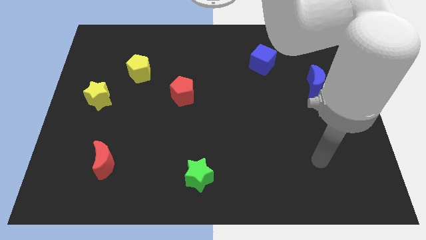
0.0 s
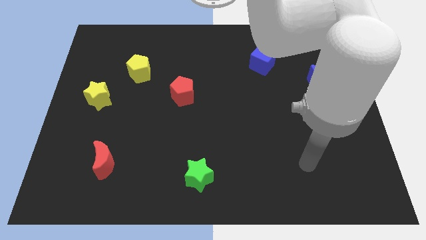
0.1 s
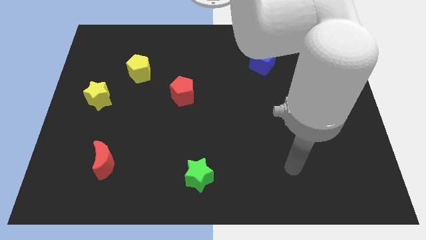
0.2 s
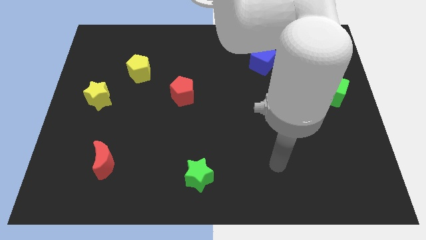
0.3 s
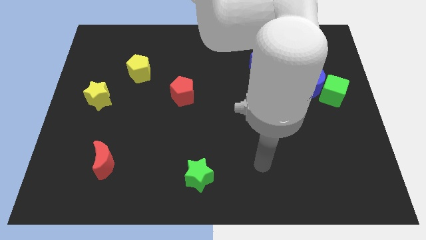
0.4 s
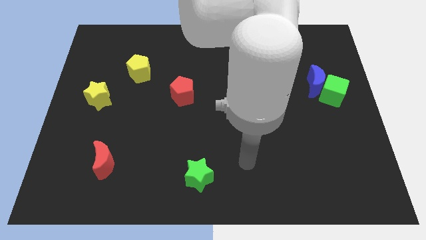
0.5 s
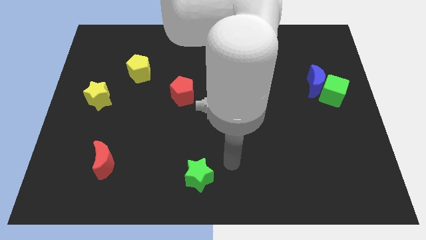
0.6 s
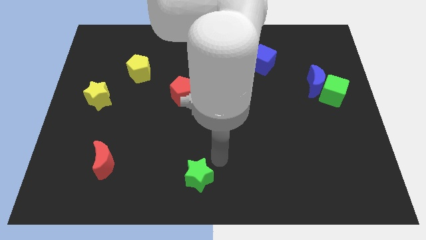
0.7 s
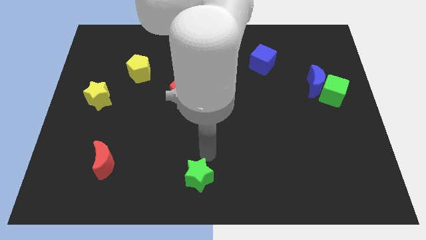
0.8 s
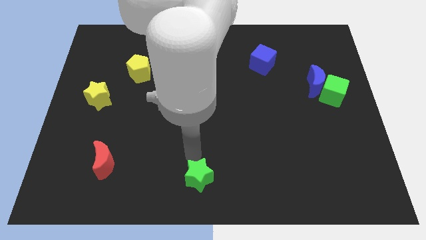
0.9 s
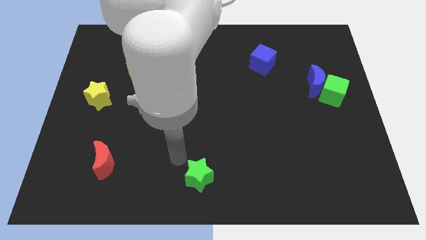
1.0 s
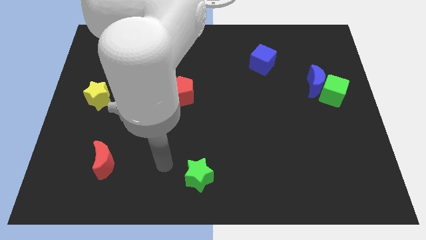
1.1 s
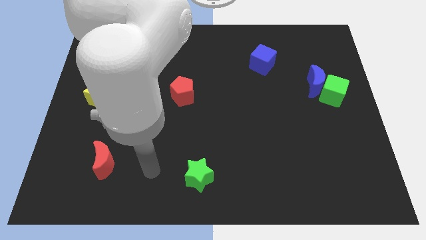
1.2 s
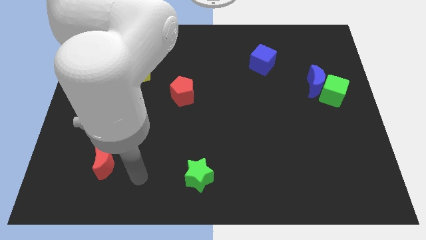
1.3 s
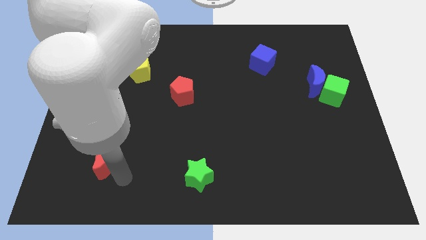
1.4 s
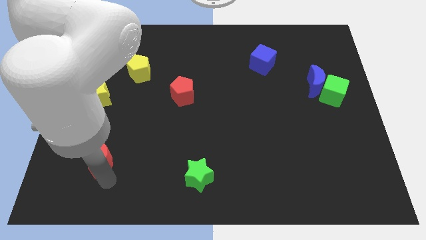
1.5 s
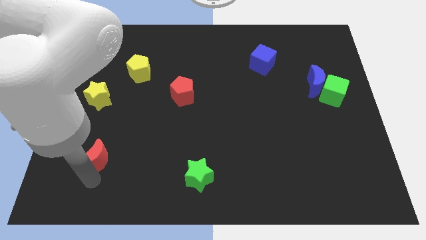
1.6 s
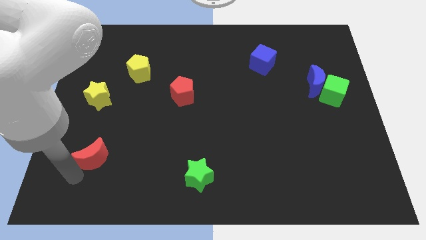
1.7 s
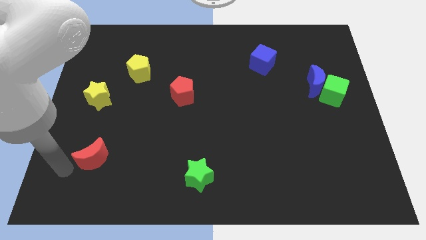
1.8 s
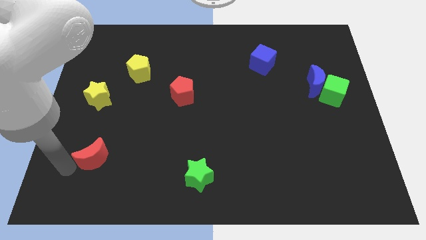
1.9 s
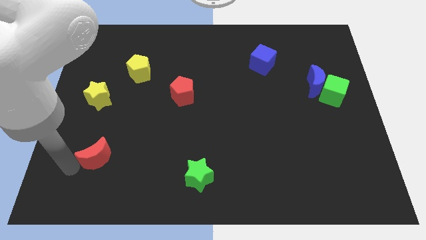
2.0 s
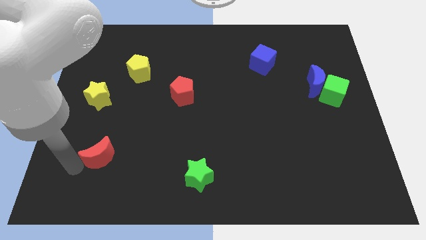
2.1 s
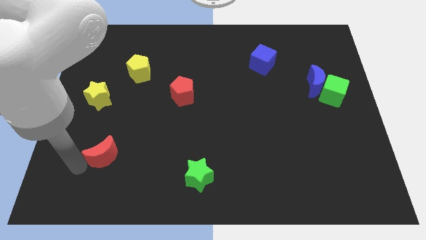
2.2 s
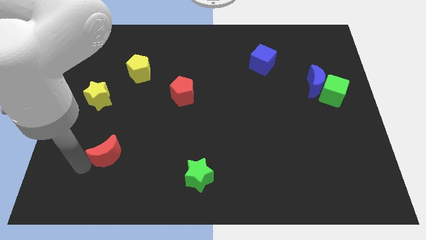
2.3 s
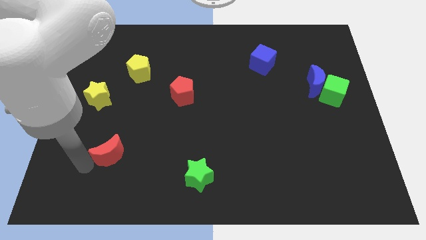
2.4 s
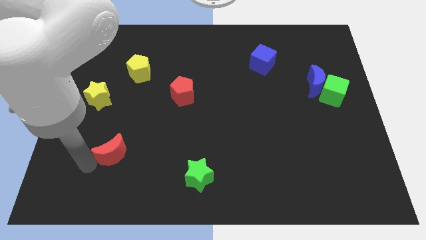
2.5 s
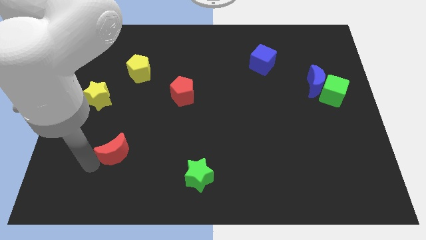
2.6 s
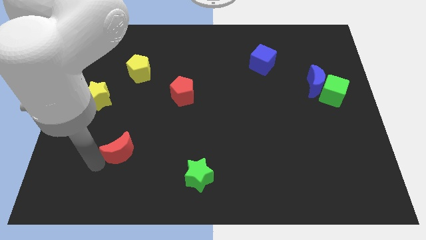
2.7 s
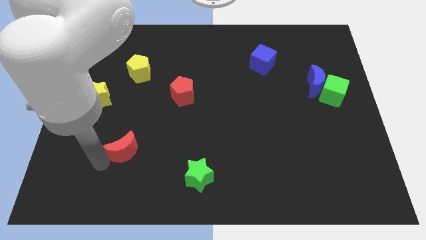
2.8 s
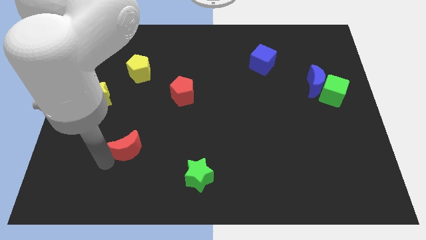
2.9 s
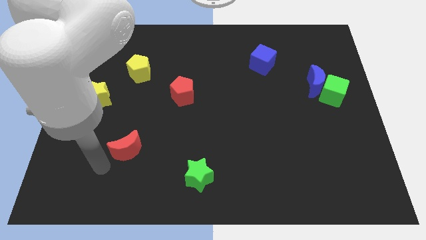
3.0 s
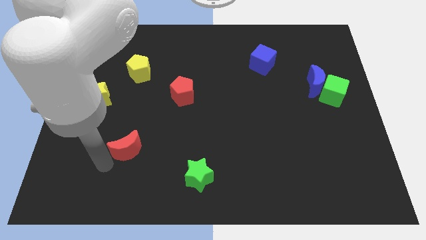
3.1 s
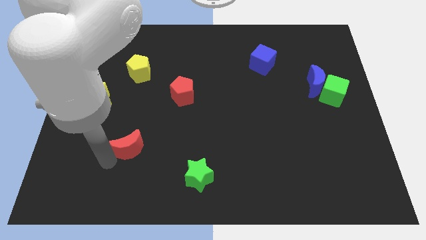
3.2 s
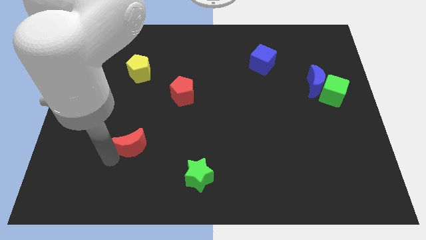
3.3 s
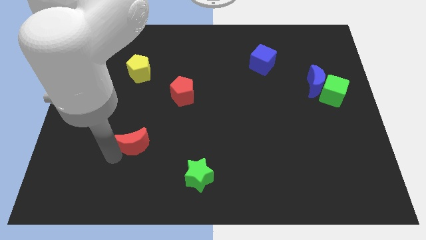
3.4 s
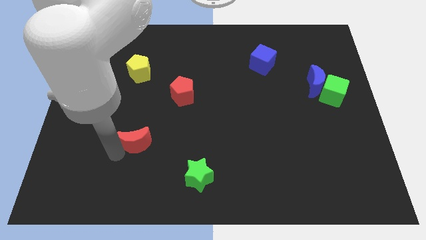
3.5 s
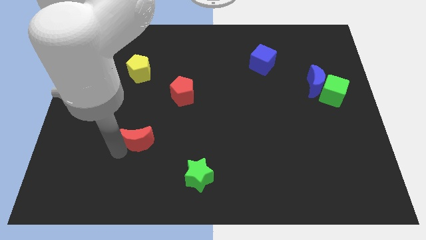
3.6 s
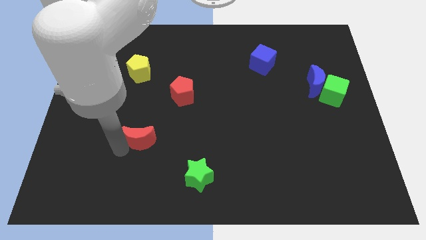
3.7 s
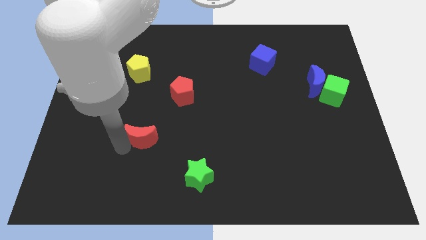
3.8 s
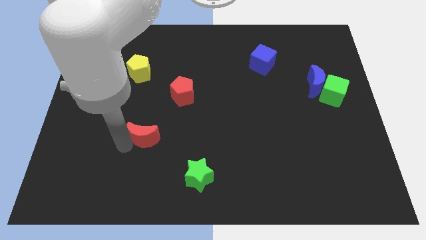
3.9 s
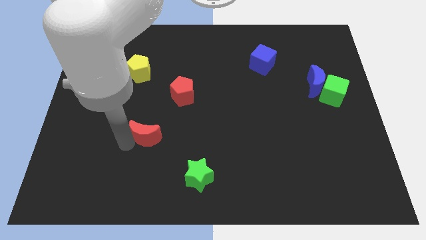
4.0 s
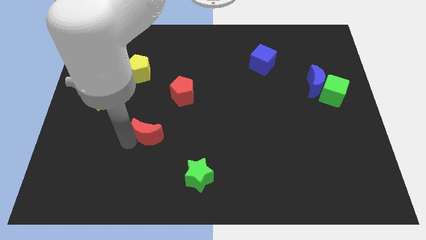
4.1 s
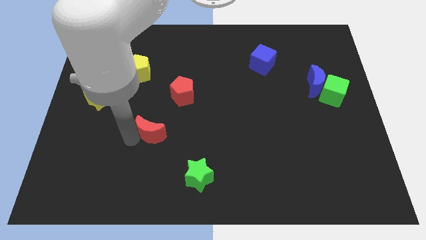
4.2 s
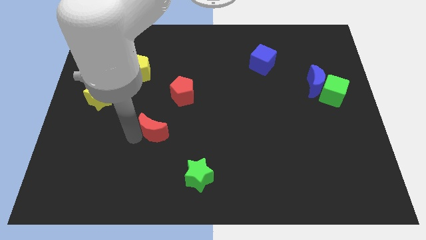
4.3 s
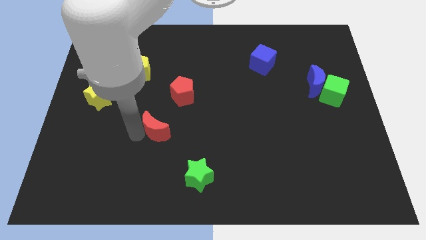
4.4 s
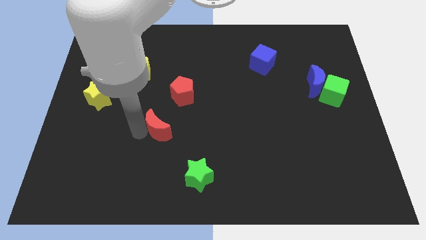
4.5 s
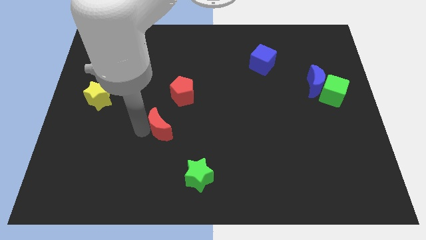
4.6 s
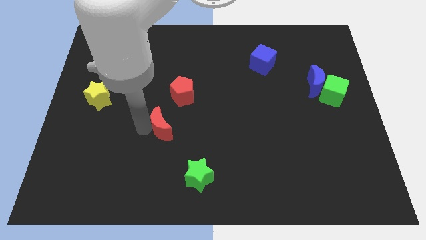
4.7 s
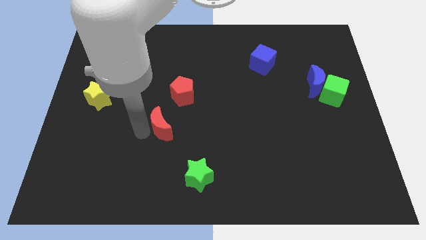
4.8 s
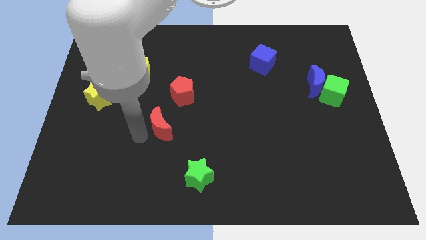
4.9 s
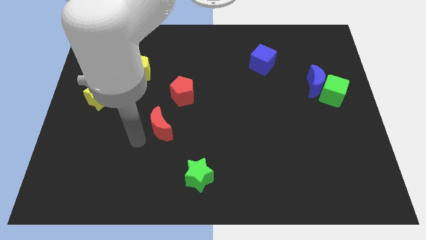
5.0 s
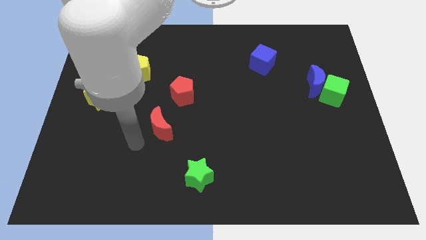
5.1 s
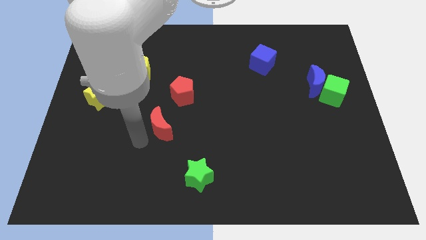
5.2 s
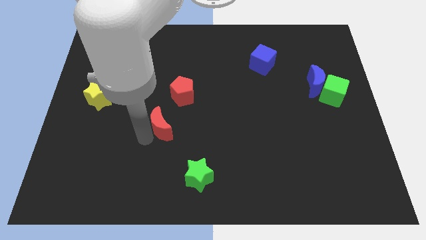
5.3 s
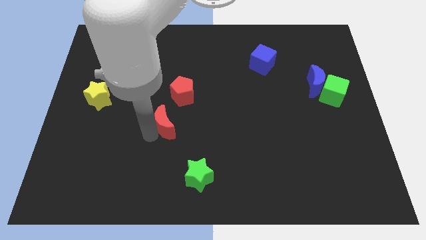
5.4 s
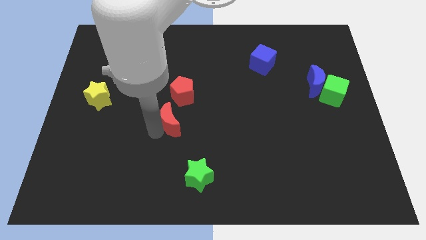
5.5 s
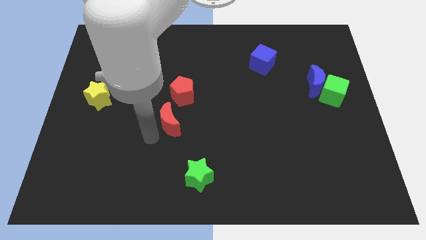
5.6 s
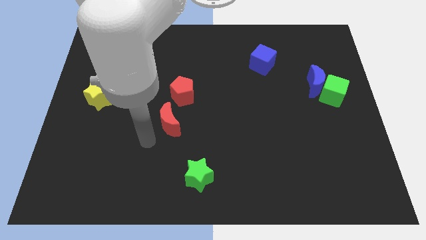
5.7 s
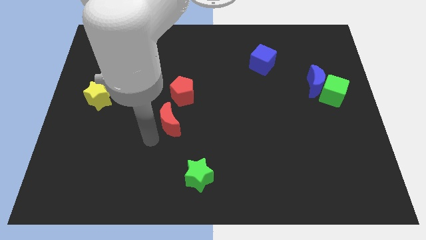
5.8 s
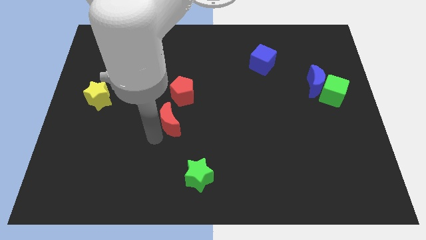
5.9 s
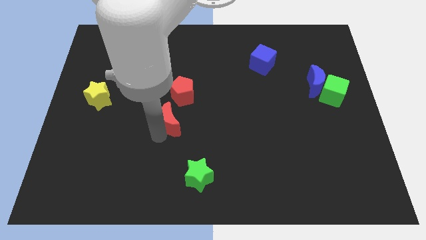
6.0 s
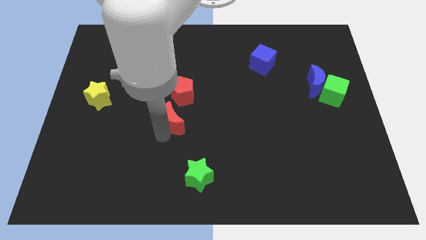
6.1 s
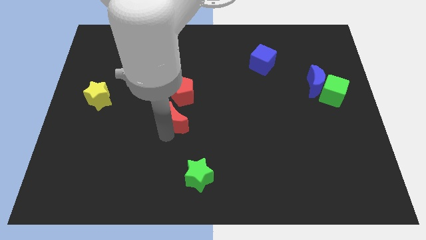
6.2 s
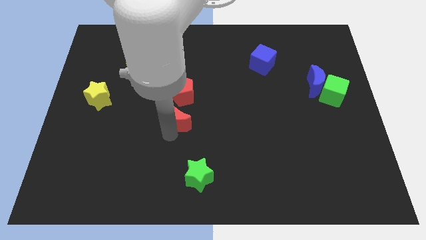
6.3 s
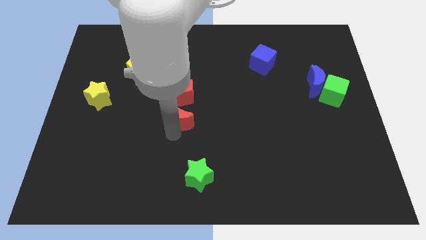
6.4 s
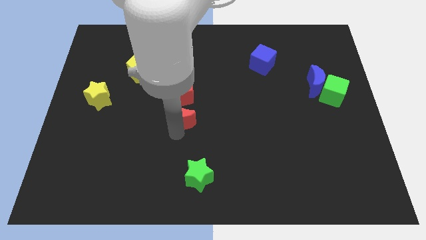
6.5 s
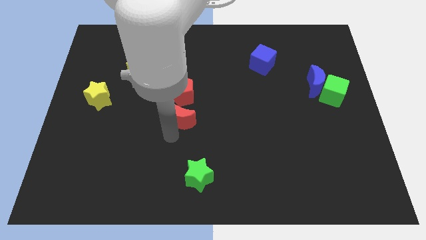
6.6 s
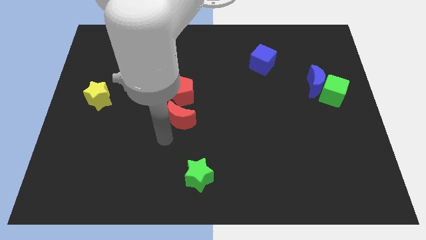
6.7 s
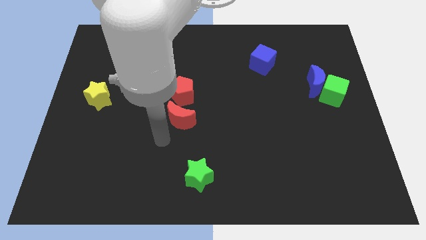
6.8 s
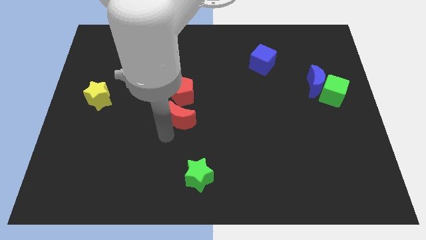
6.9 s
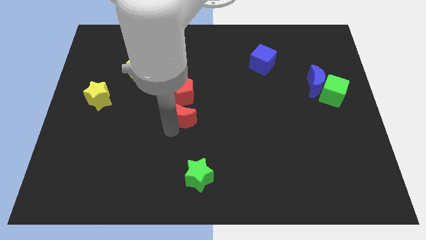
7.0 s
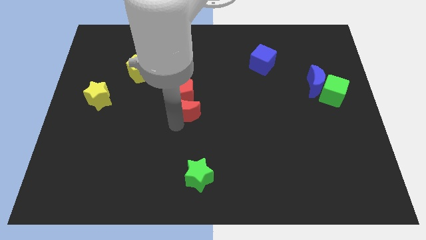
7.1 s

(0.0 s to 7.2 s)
push the red moon diagonally upwards and to the right

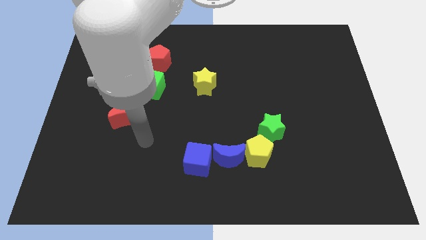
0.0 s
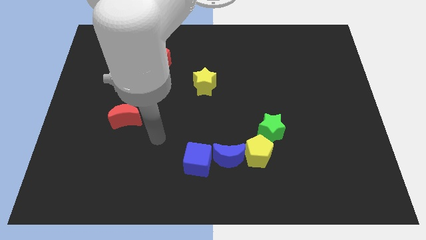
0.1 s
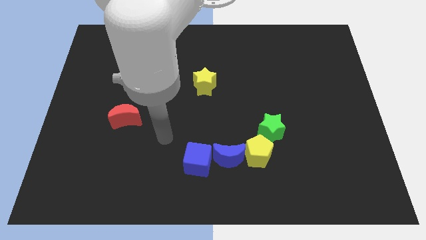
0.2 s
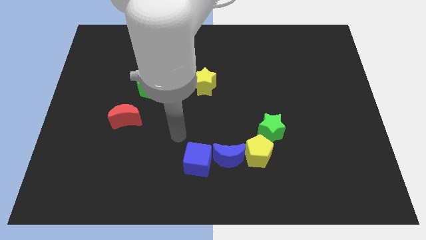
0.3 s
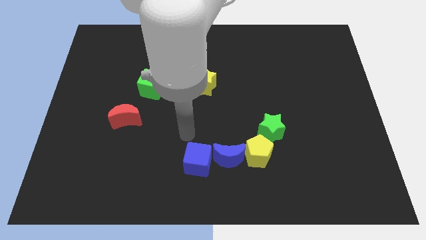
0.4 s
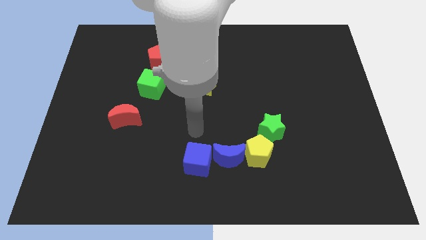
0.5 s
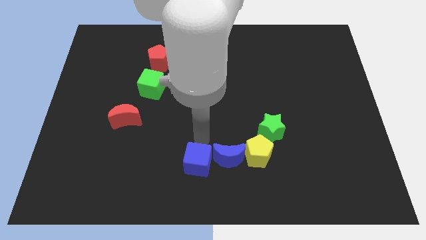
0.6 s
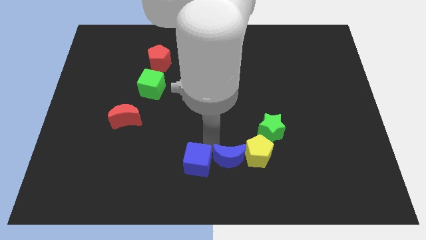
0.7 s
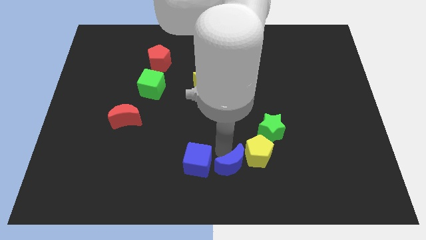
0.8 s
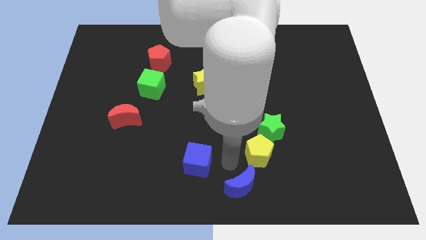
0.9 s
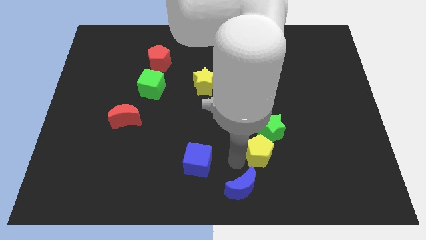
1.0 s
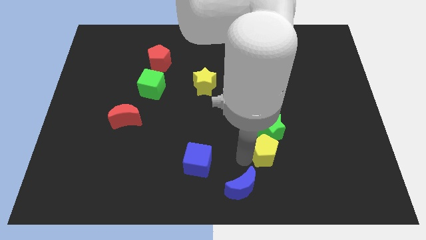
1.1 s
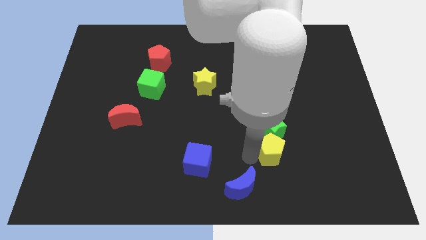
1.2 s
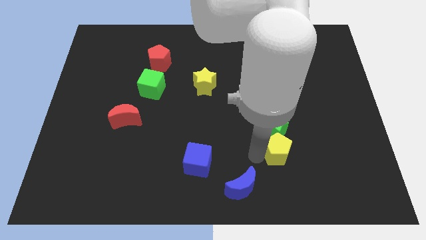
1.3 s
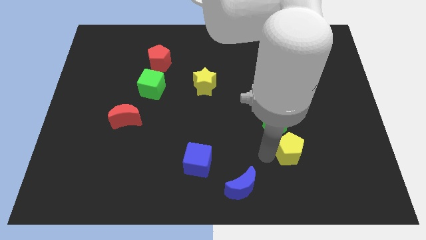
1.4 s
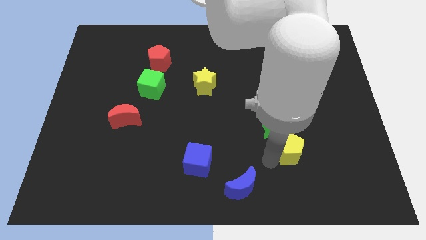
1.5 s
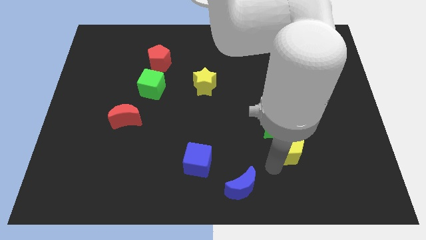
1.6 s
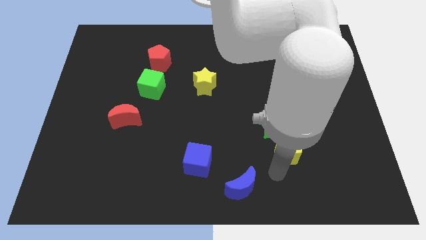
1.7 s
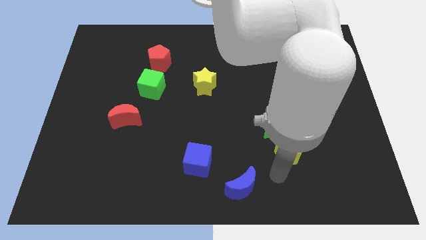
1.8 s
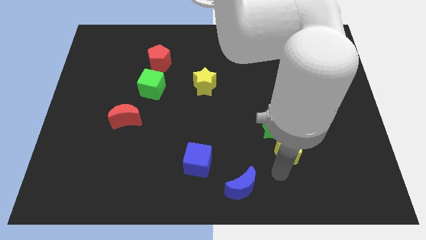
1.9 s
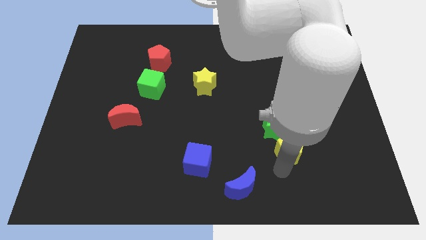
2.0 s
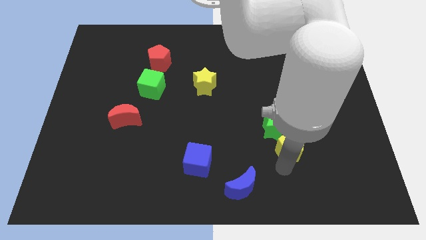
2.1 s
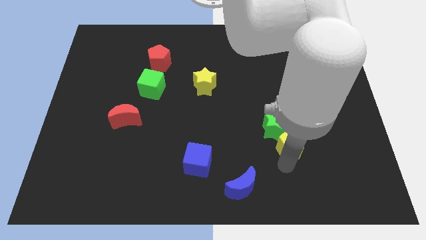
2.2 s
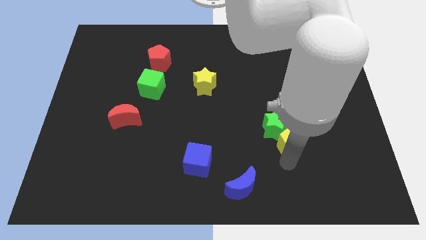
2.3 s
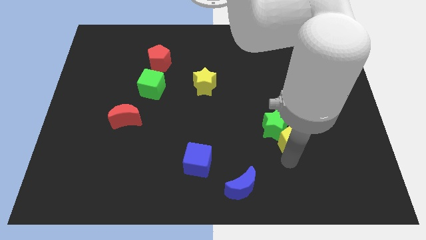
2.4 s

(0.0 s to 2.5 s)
slightly slide the yellow pentagon upwards and then right
